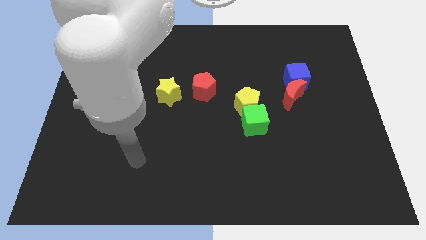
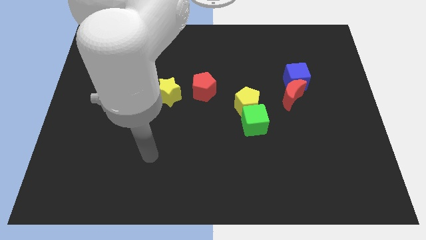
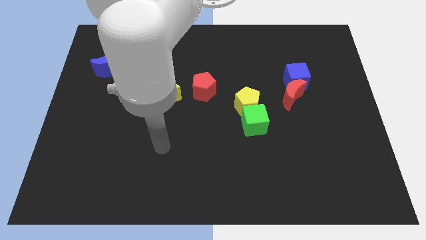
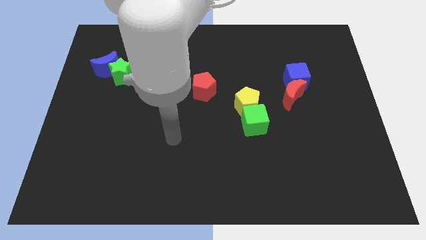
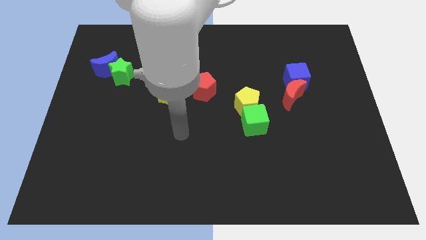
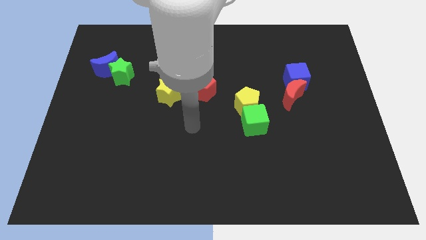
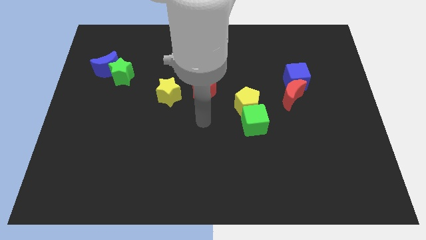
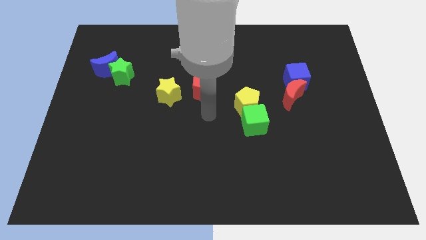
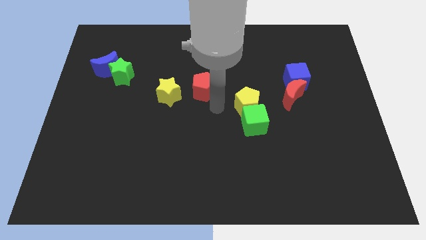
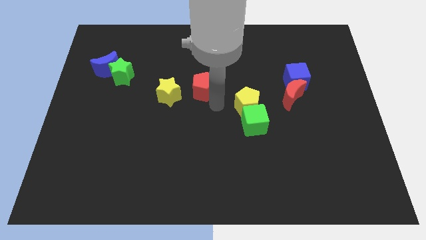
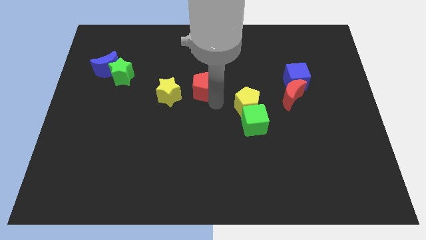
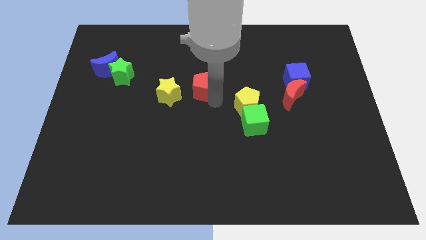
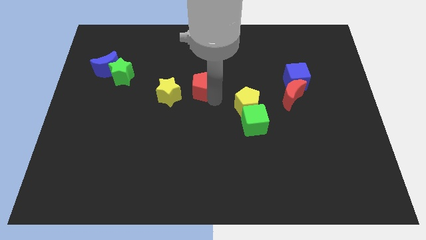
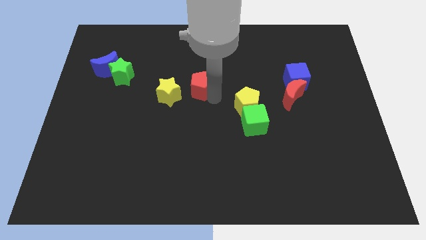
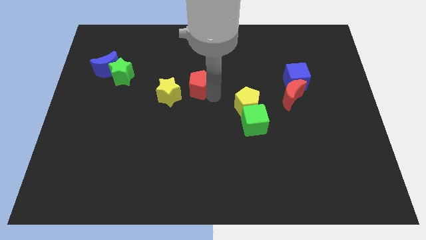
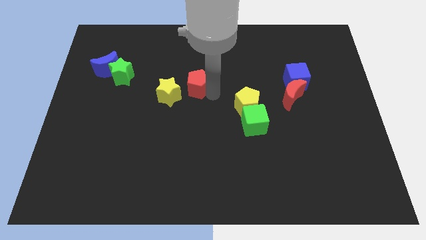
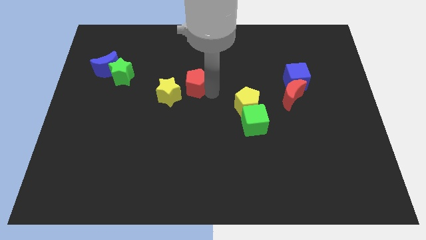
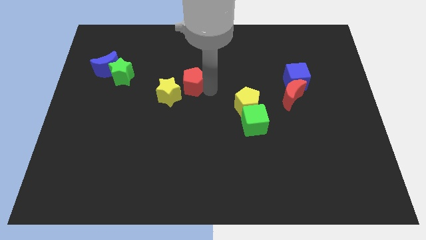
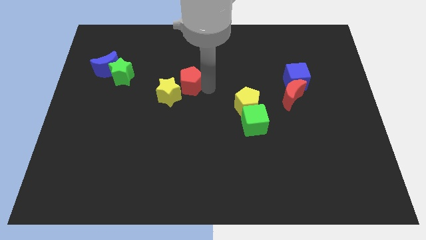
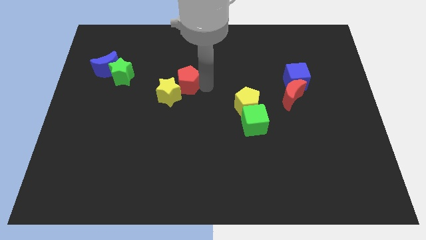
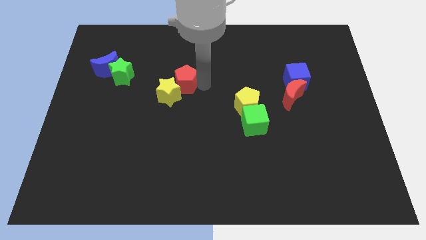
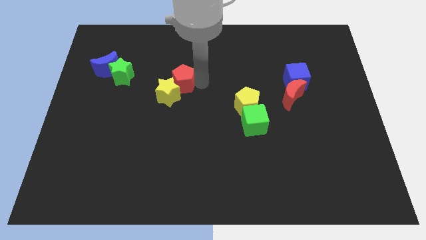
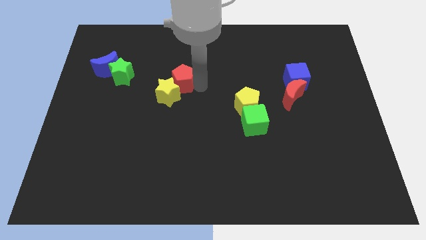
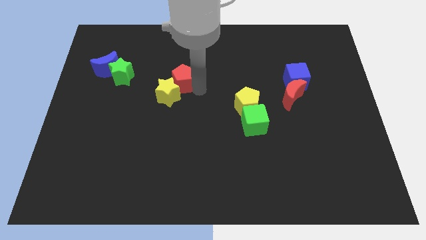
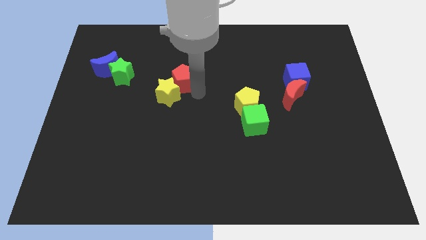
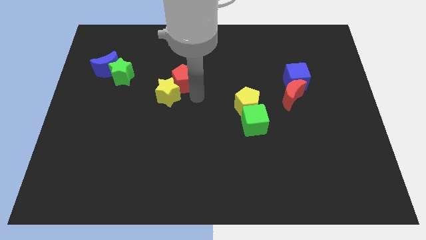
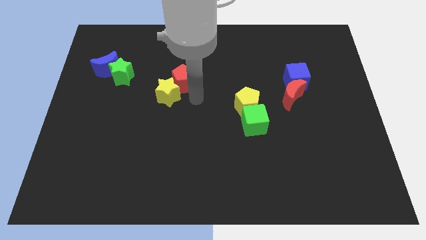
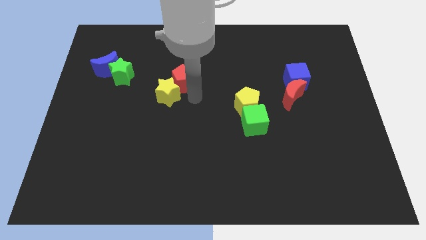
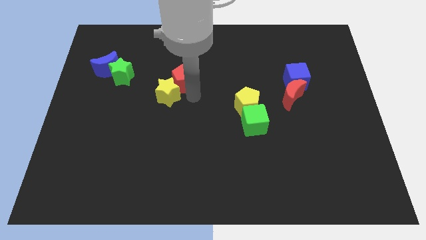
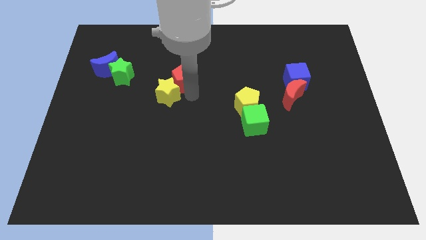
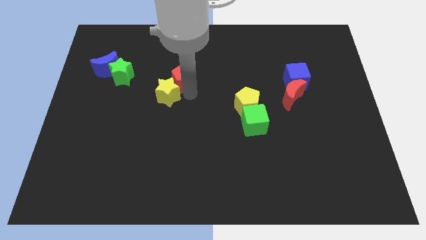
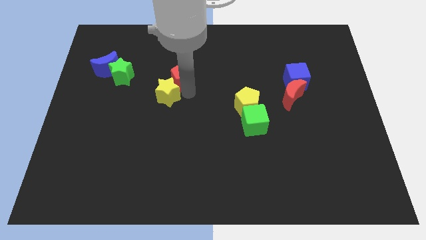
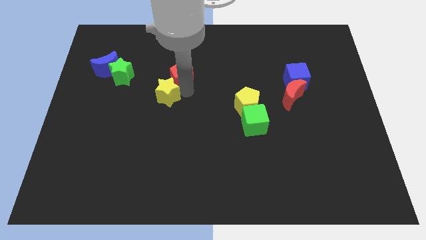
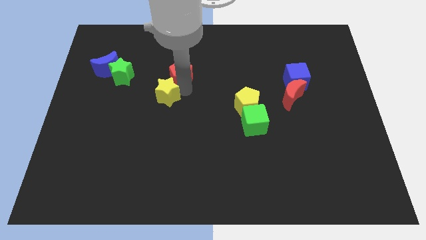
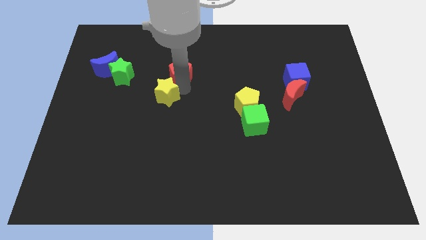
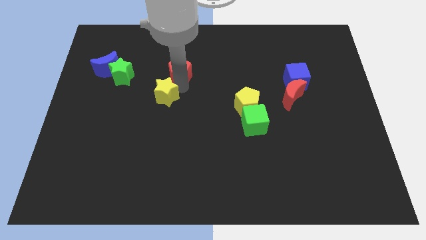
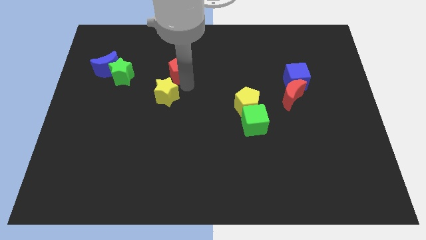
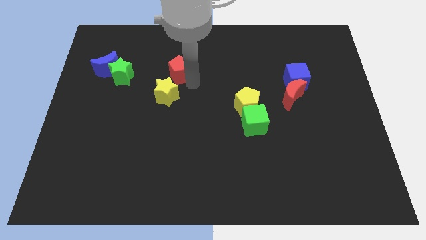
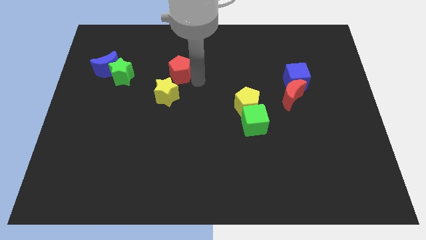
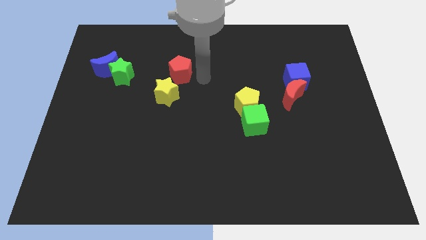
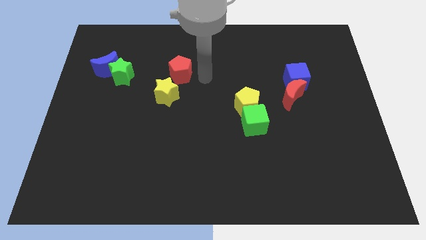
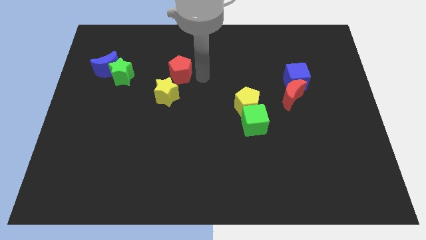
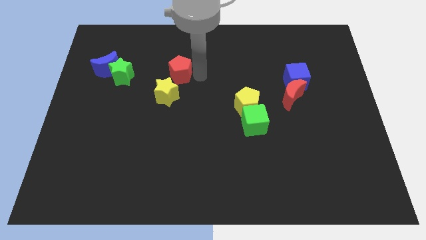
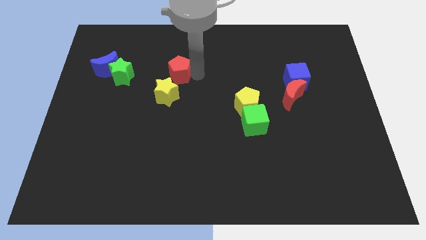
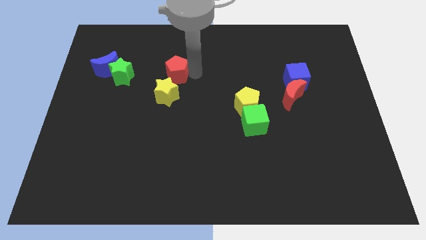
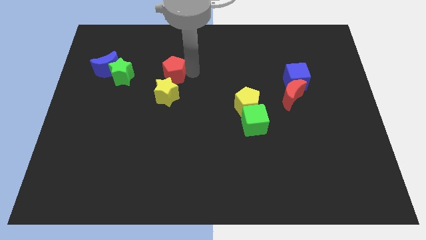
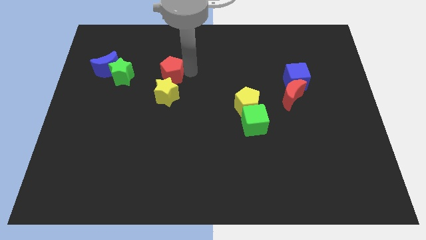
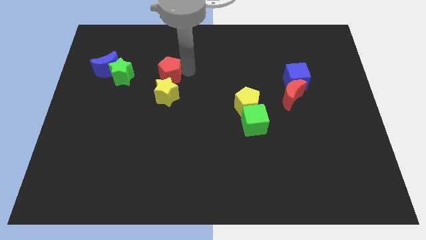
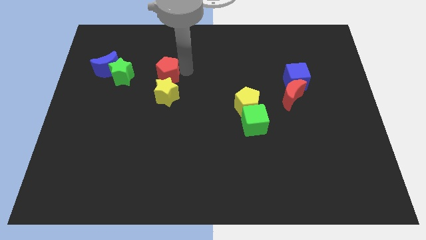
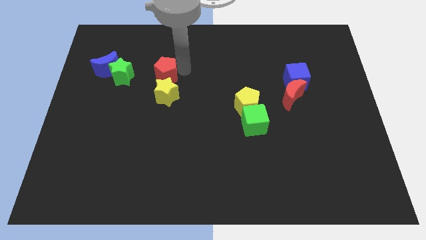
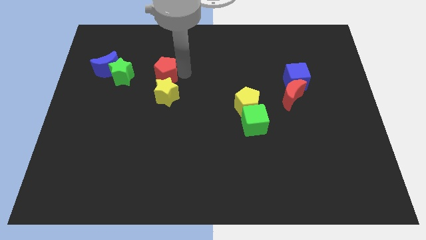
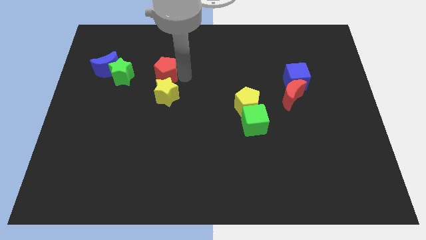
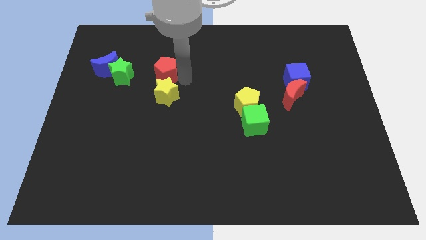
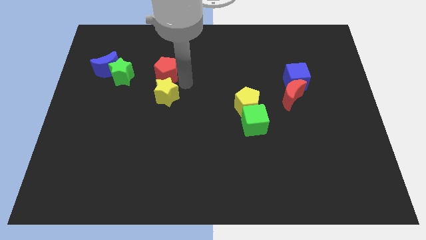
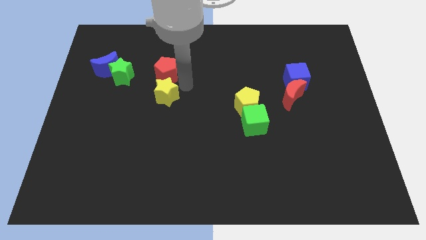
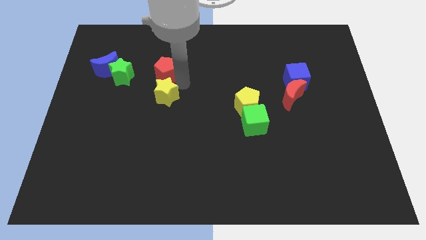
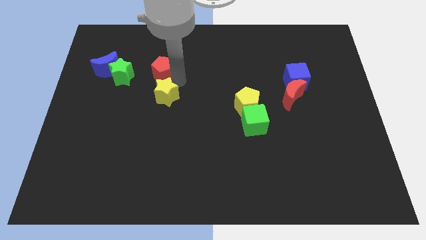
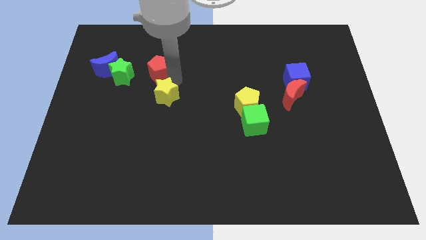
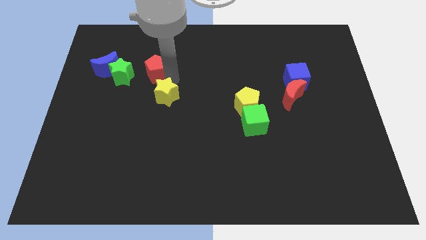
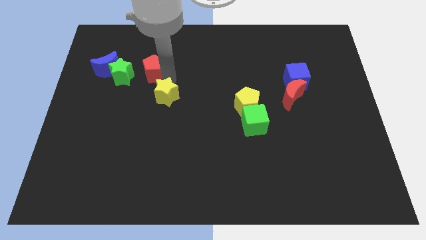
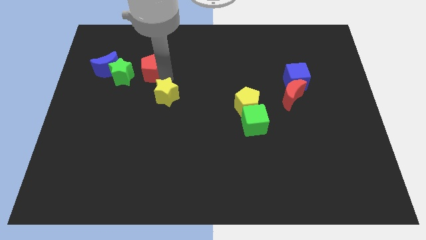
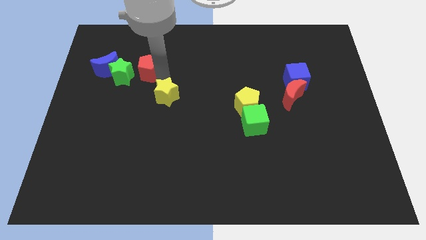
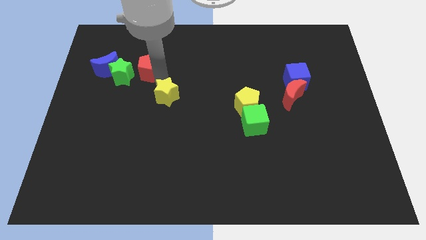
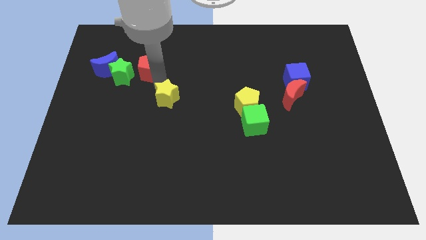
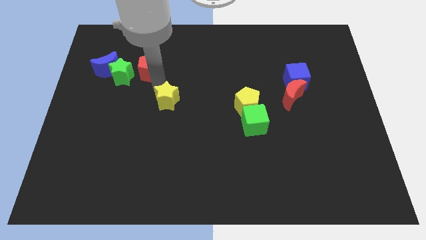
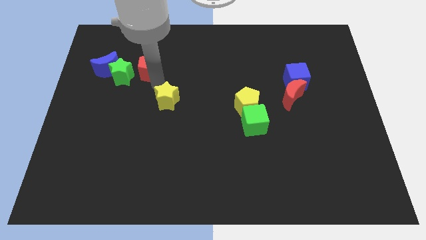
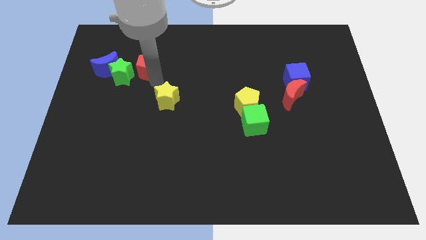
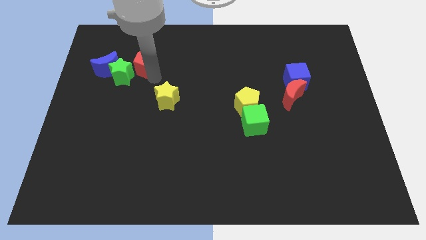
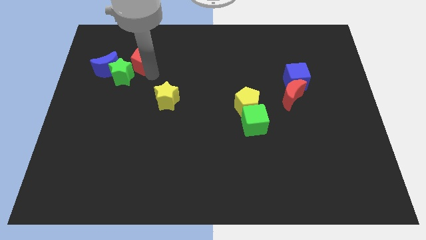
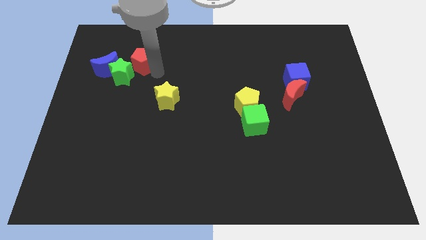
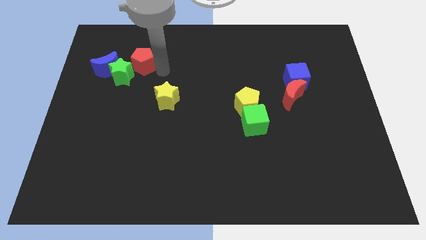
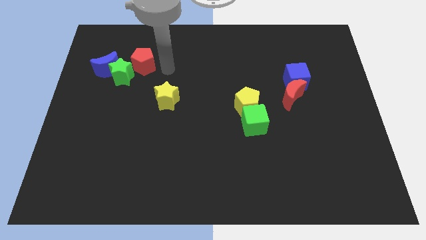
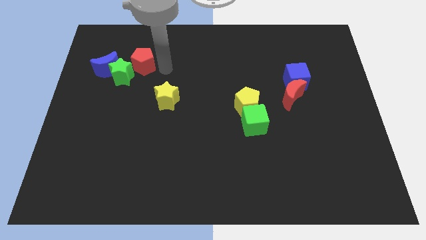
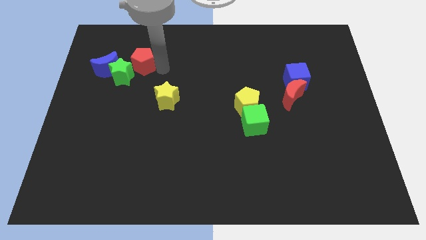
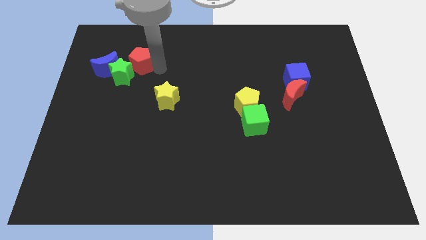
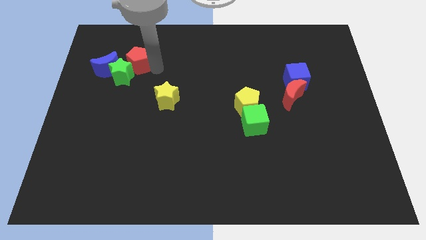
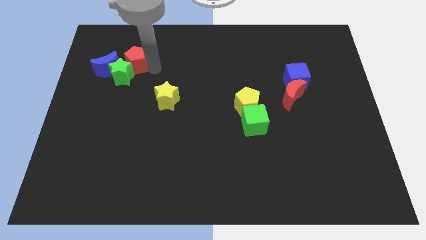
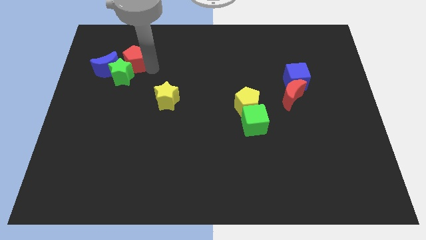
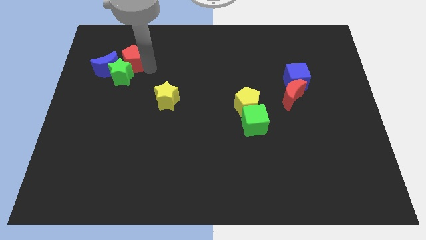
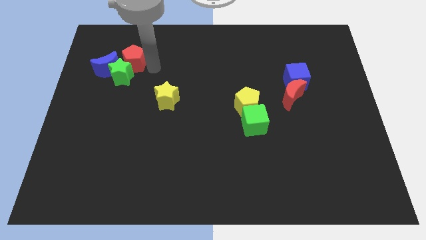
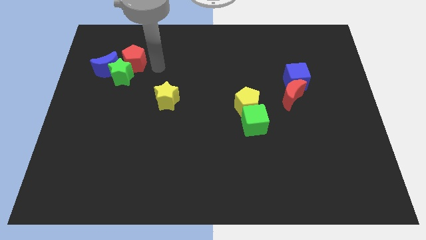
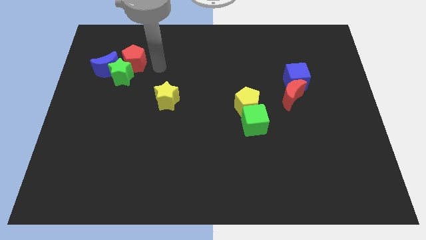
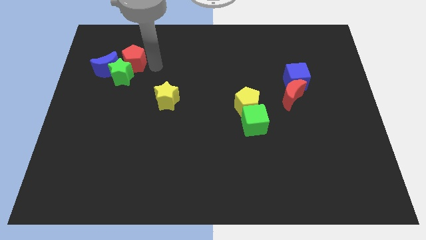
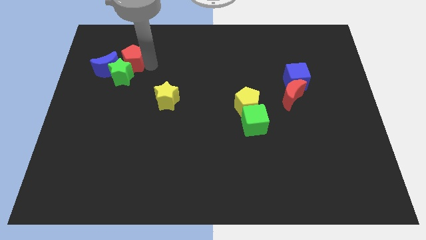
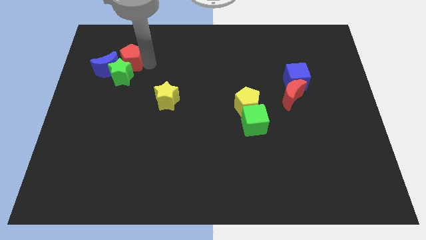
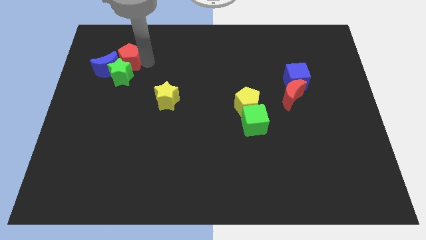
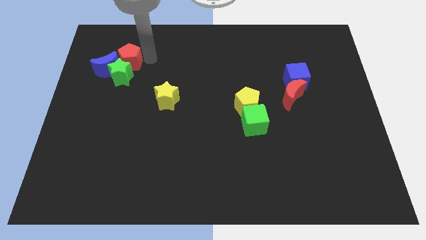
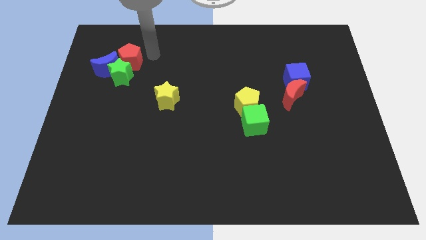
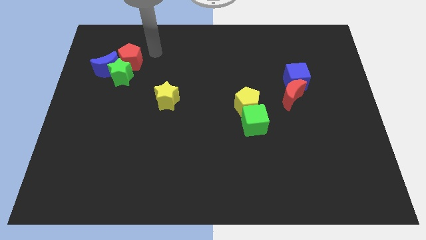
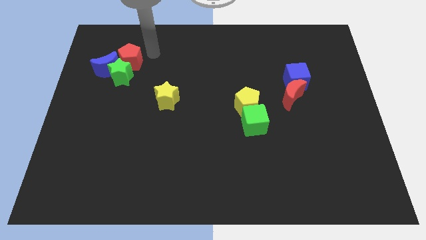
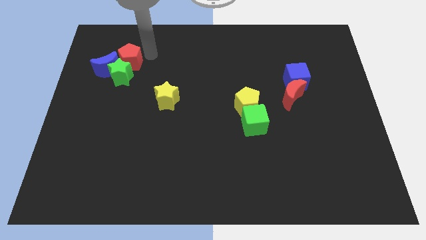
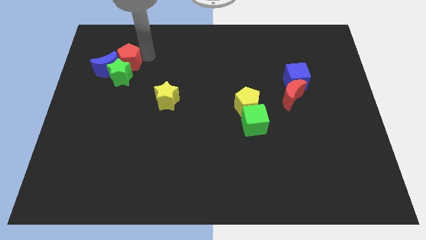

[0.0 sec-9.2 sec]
move the red pentagon towards the blue moon
